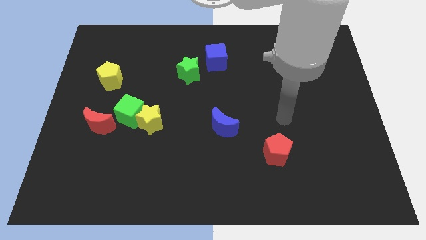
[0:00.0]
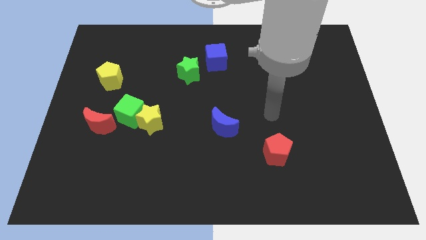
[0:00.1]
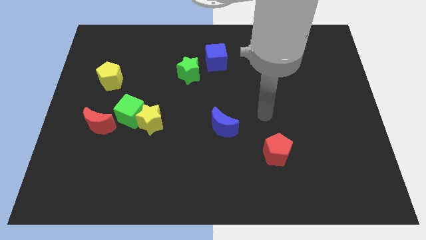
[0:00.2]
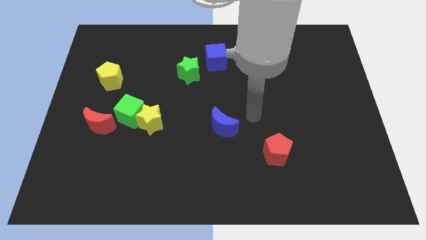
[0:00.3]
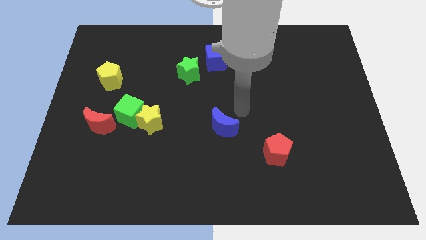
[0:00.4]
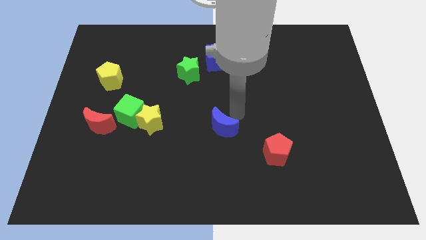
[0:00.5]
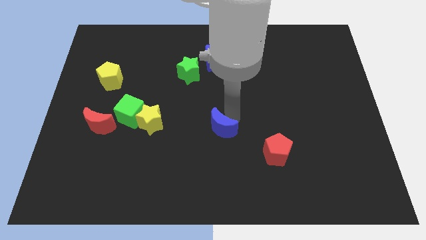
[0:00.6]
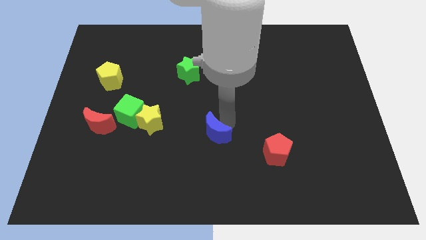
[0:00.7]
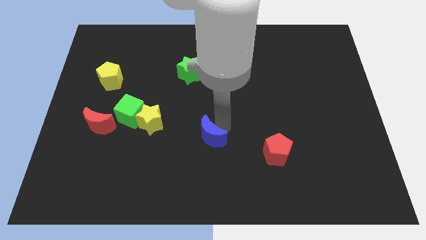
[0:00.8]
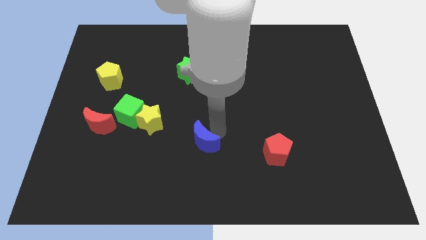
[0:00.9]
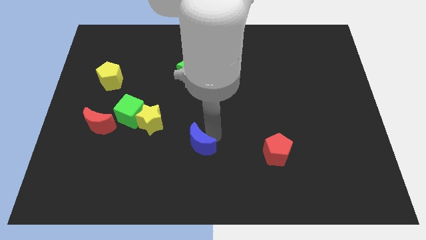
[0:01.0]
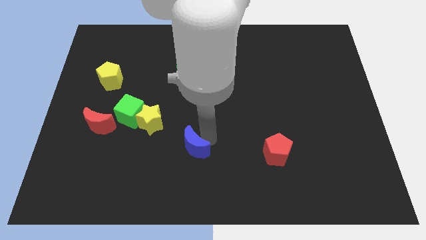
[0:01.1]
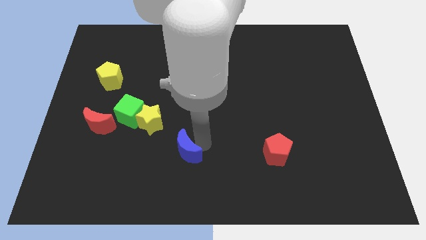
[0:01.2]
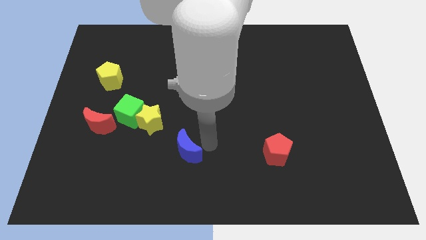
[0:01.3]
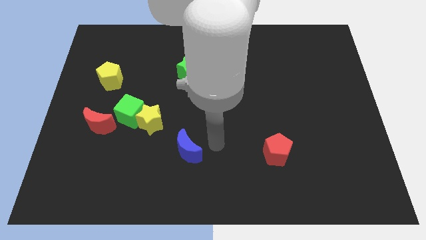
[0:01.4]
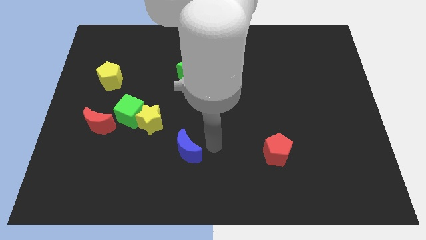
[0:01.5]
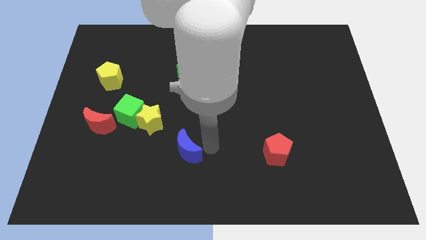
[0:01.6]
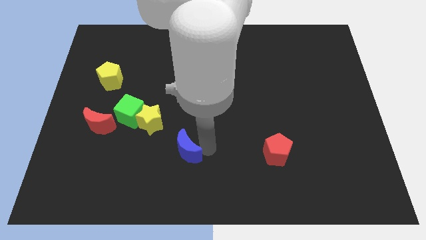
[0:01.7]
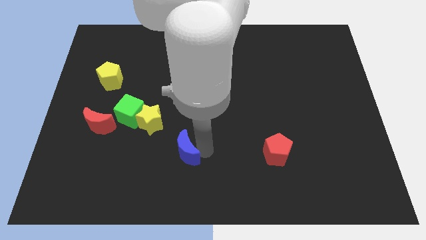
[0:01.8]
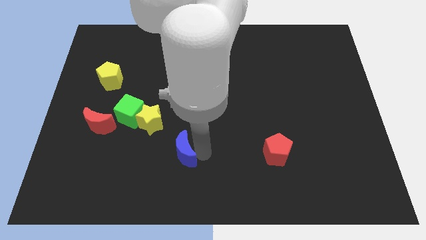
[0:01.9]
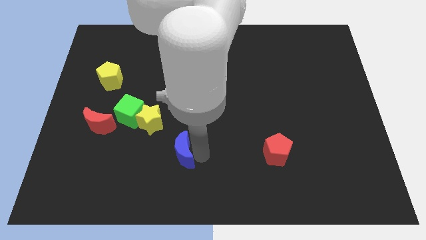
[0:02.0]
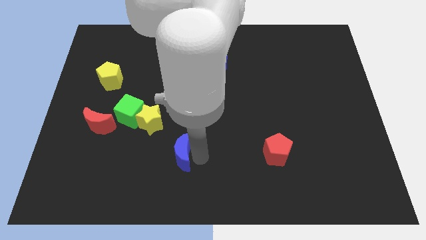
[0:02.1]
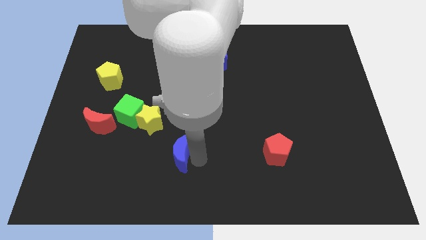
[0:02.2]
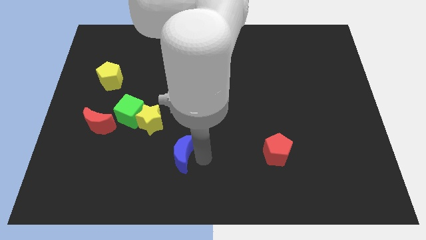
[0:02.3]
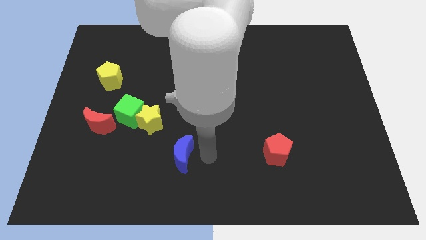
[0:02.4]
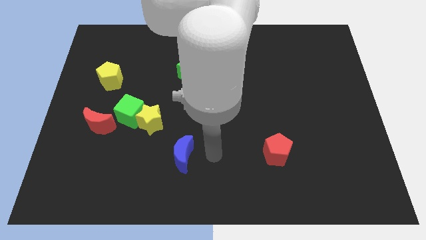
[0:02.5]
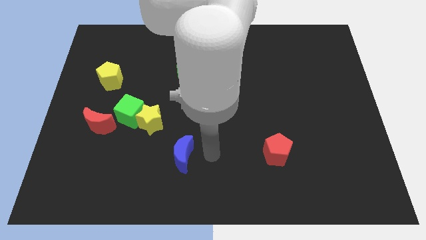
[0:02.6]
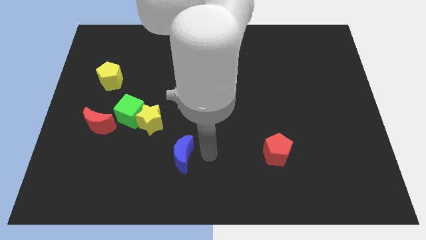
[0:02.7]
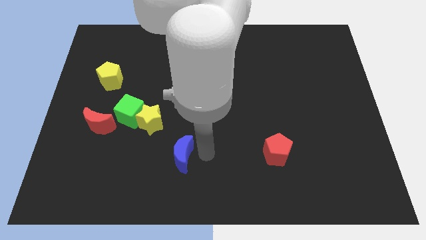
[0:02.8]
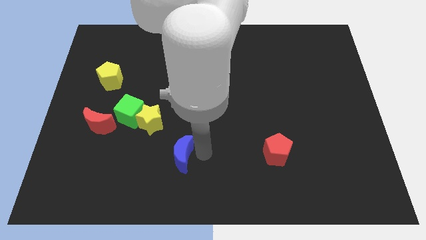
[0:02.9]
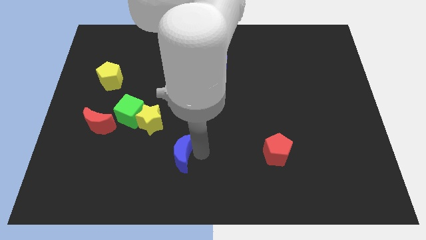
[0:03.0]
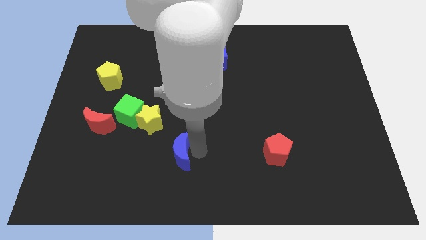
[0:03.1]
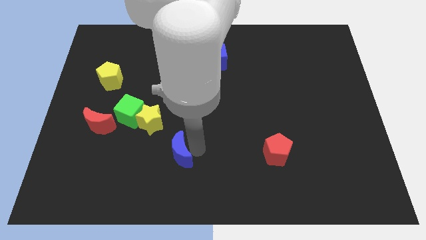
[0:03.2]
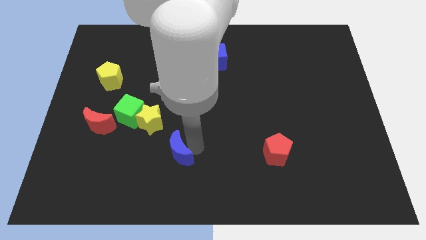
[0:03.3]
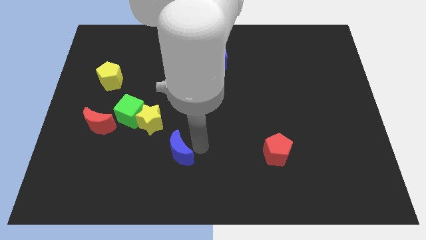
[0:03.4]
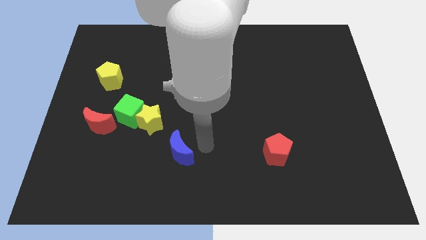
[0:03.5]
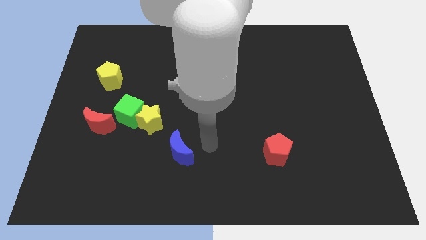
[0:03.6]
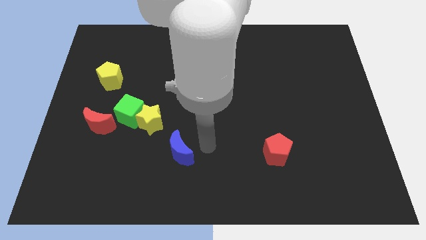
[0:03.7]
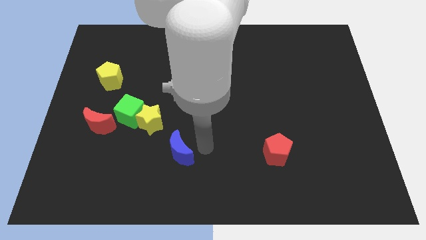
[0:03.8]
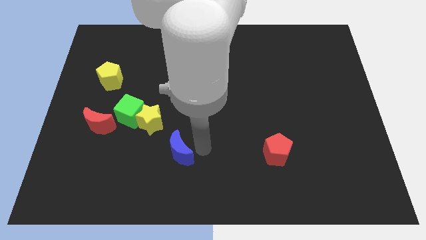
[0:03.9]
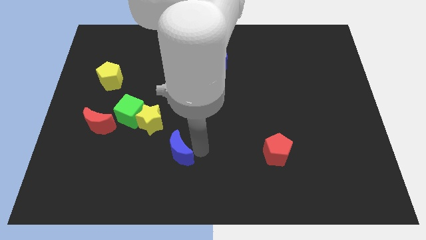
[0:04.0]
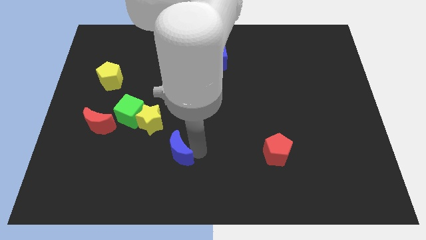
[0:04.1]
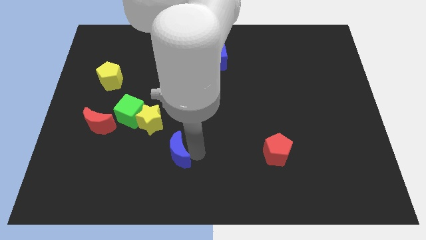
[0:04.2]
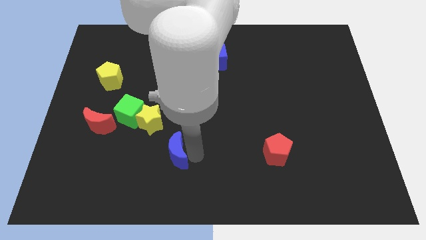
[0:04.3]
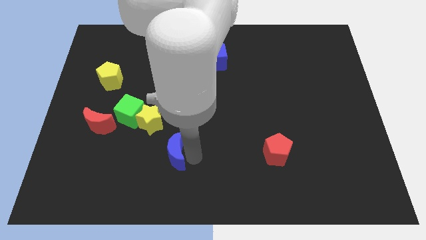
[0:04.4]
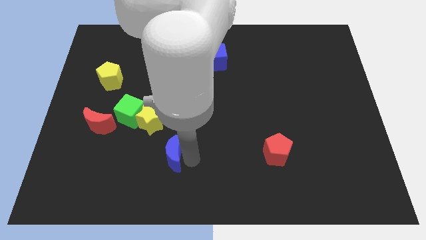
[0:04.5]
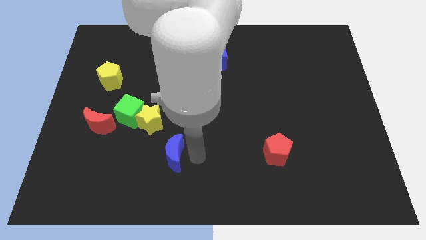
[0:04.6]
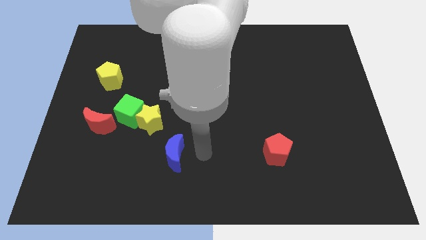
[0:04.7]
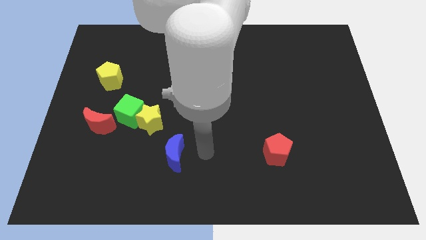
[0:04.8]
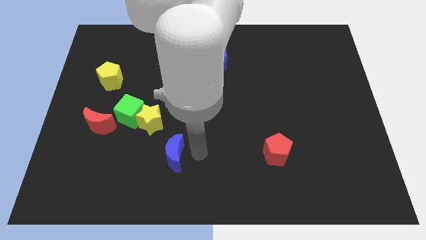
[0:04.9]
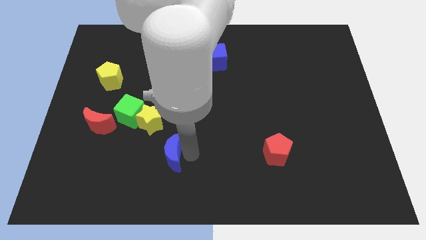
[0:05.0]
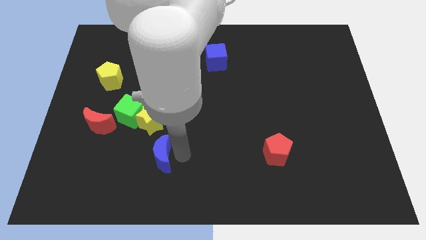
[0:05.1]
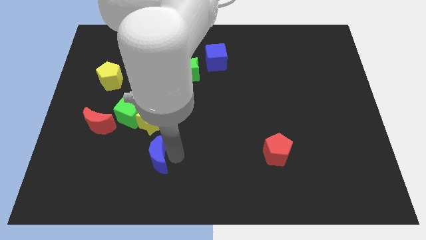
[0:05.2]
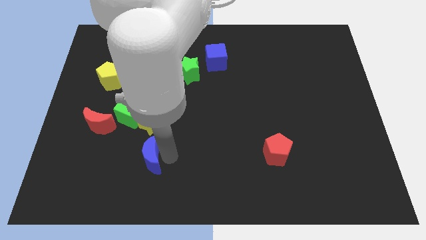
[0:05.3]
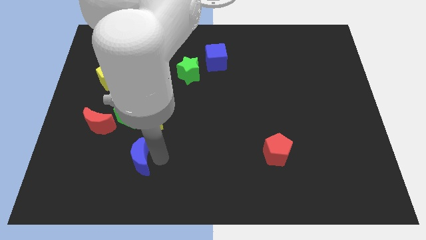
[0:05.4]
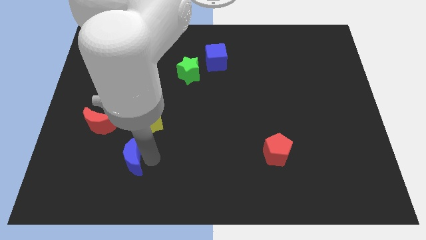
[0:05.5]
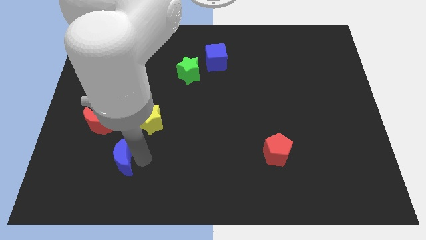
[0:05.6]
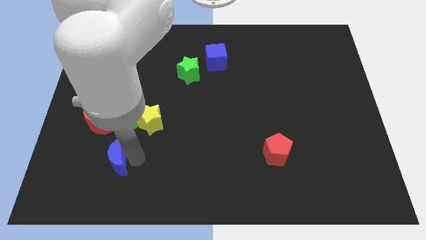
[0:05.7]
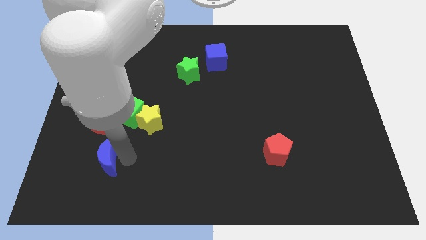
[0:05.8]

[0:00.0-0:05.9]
slide the blue moon to the bottom side of the red moon

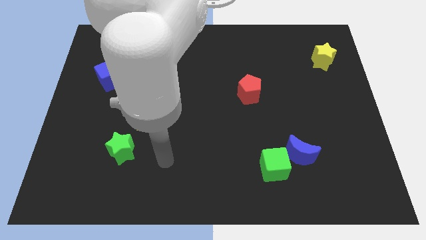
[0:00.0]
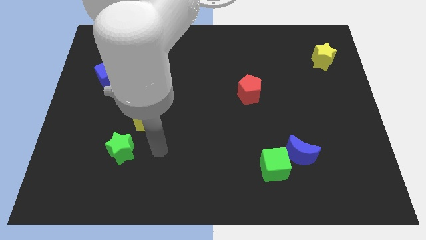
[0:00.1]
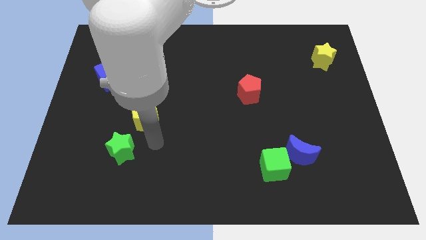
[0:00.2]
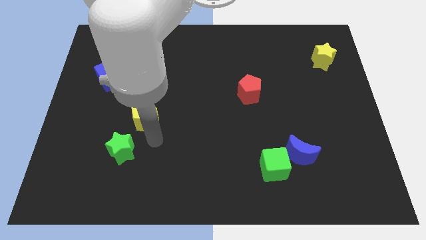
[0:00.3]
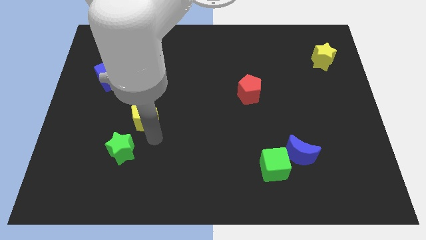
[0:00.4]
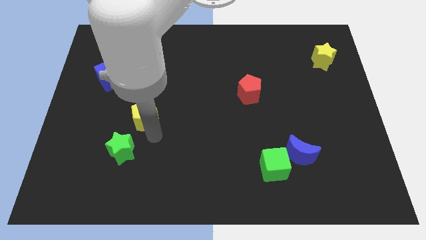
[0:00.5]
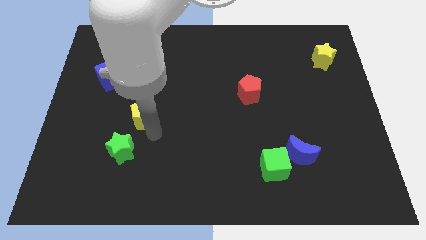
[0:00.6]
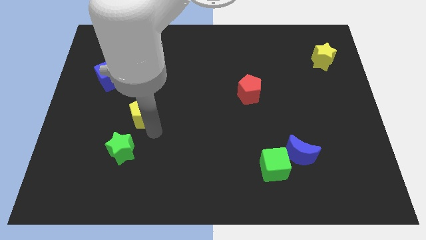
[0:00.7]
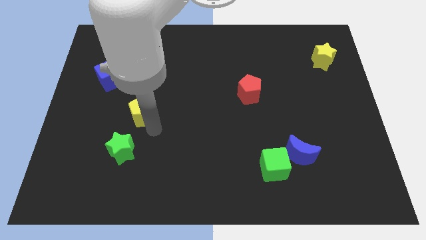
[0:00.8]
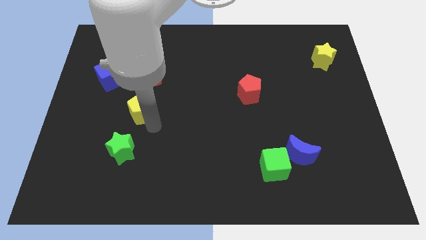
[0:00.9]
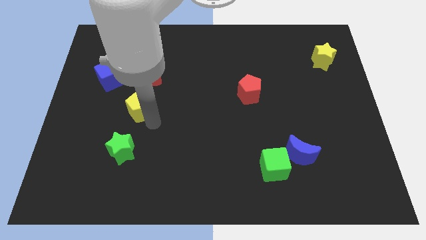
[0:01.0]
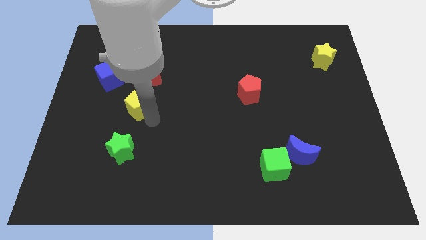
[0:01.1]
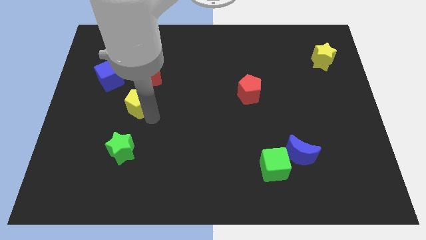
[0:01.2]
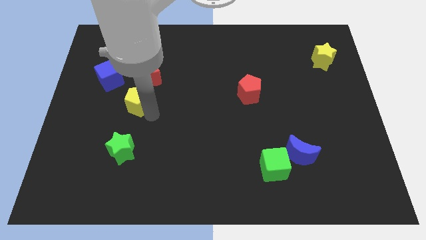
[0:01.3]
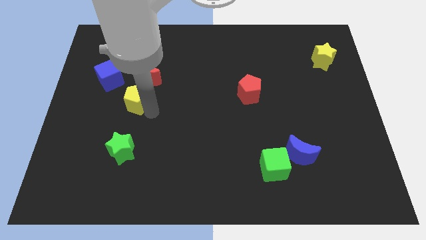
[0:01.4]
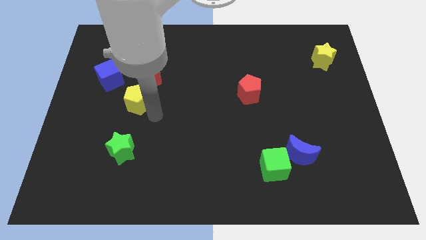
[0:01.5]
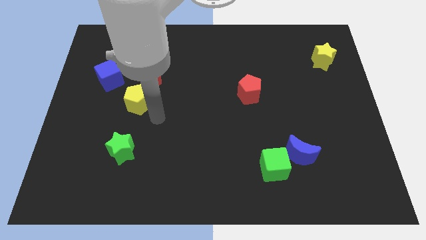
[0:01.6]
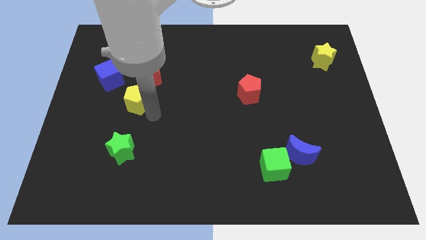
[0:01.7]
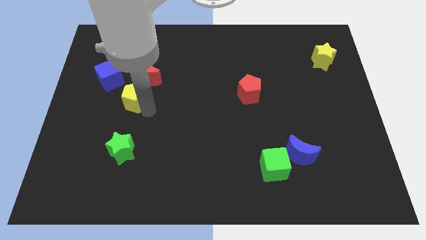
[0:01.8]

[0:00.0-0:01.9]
slide the yellow pentagon diagonally down and to the left of the red moon
